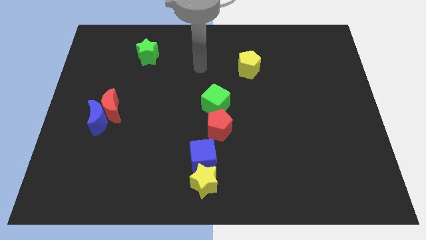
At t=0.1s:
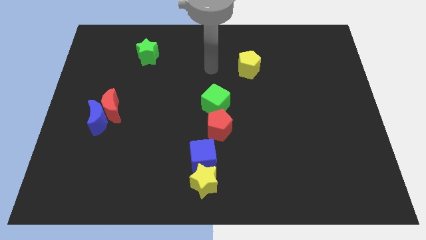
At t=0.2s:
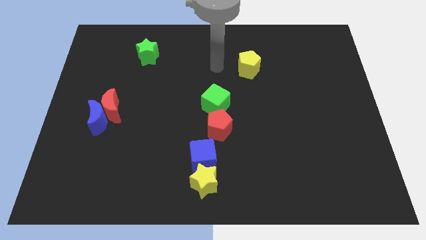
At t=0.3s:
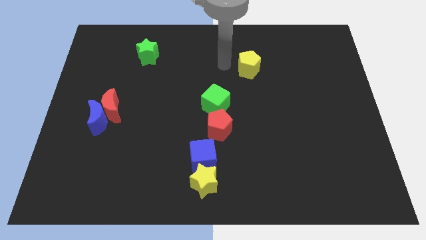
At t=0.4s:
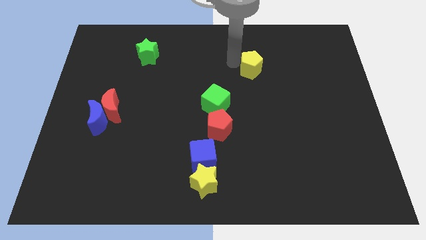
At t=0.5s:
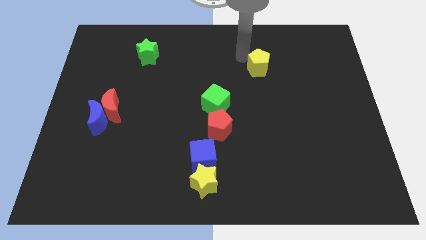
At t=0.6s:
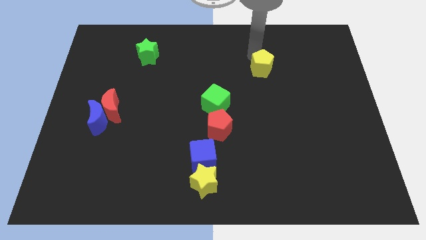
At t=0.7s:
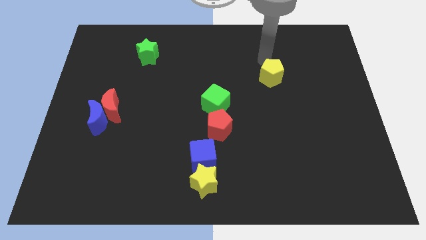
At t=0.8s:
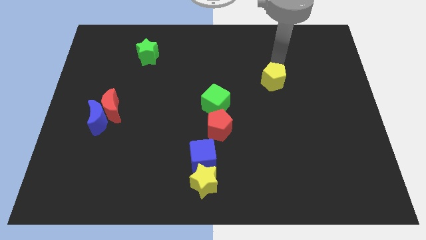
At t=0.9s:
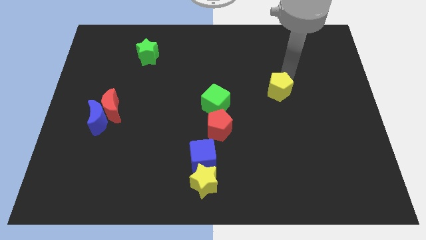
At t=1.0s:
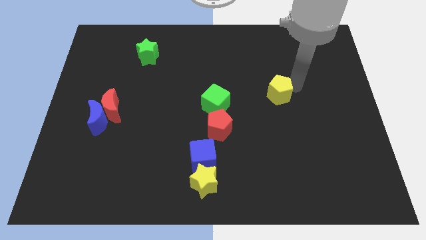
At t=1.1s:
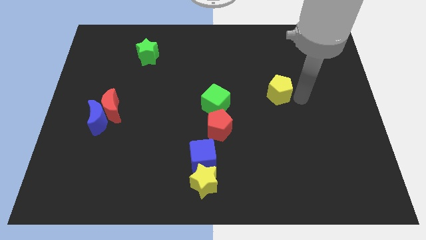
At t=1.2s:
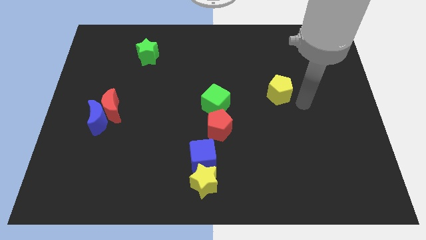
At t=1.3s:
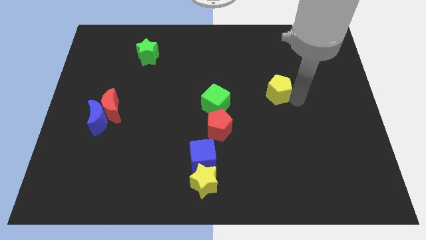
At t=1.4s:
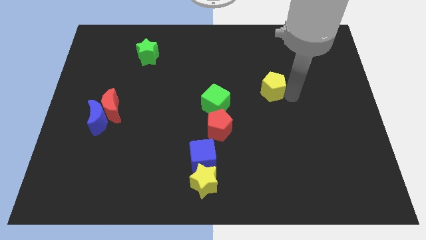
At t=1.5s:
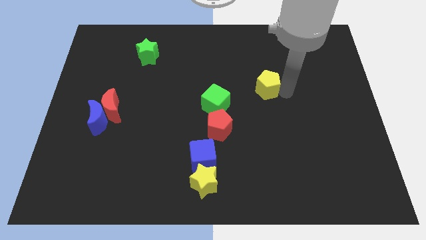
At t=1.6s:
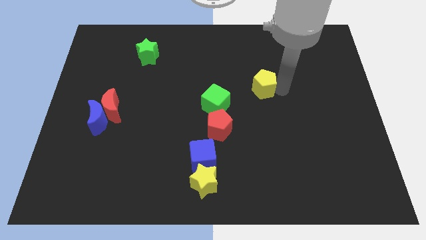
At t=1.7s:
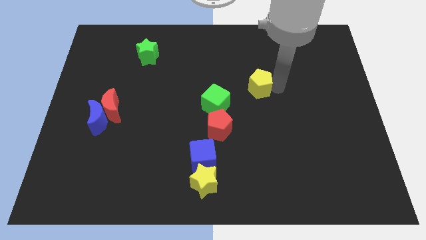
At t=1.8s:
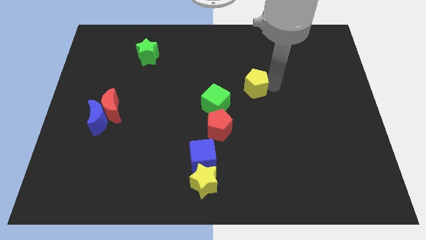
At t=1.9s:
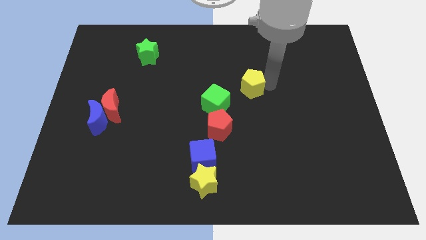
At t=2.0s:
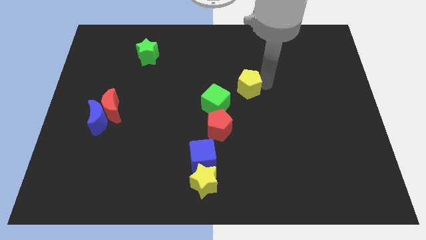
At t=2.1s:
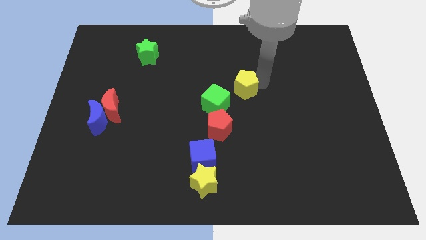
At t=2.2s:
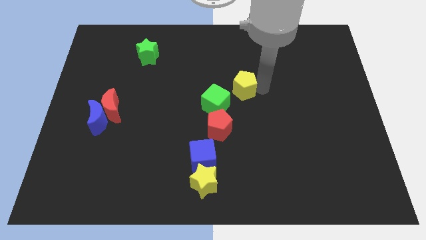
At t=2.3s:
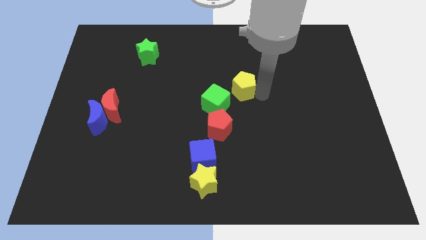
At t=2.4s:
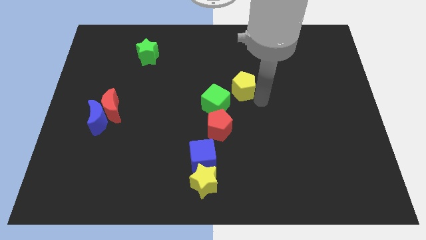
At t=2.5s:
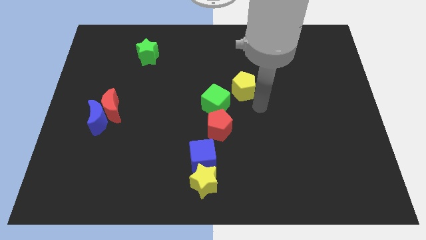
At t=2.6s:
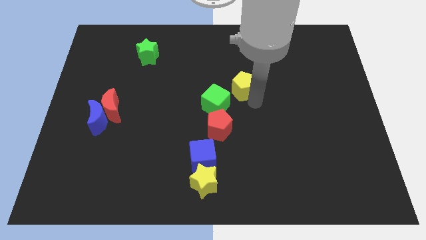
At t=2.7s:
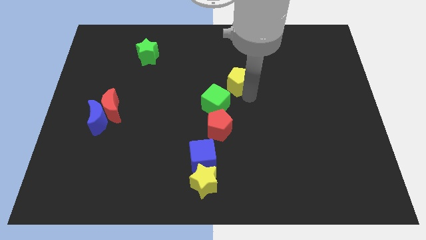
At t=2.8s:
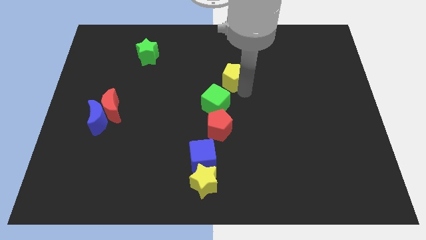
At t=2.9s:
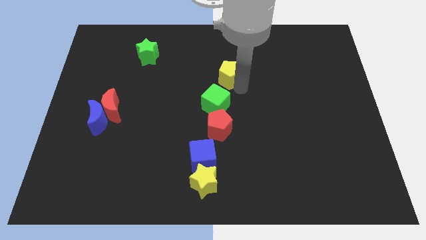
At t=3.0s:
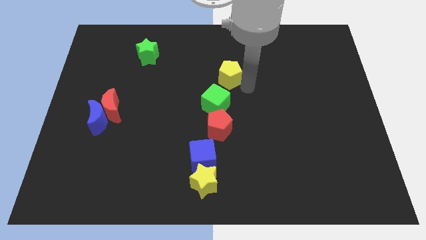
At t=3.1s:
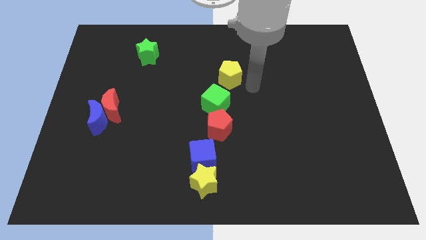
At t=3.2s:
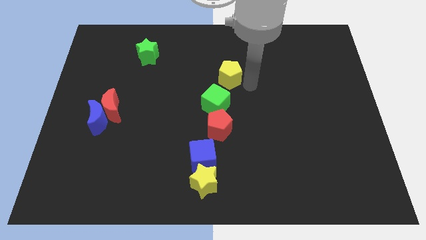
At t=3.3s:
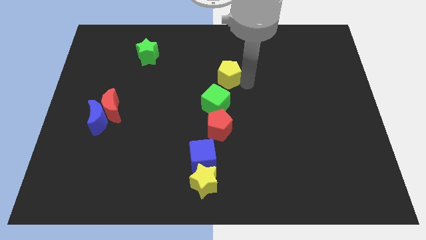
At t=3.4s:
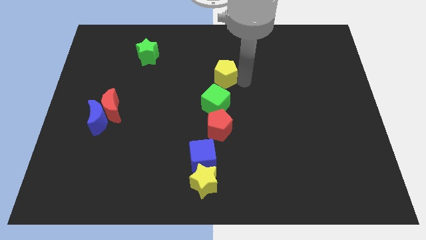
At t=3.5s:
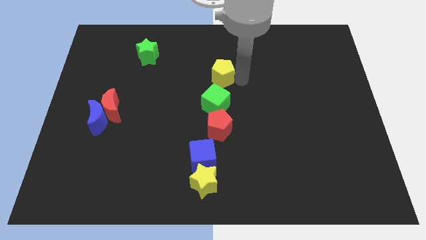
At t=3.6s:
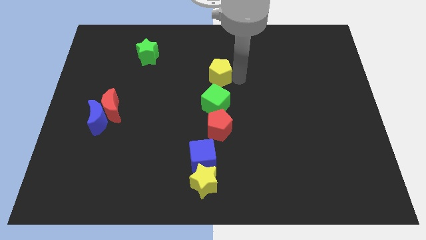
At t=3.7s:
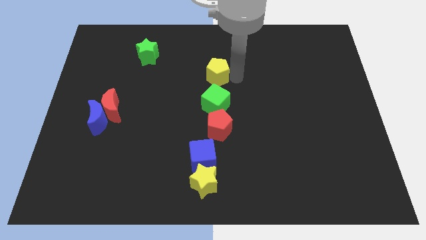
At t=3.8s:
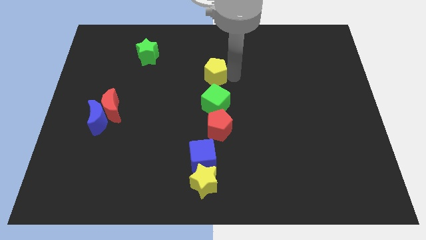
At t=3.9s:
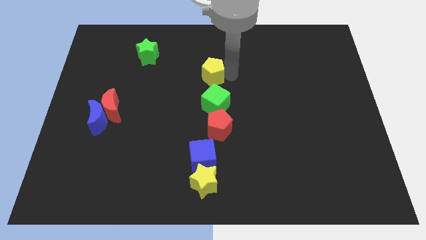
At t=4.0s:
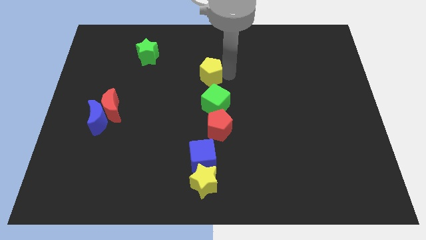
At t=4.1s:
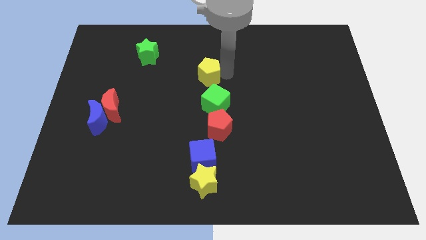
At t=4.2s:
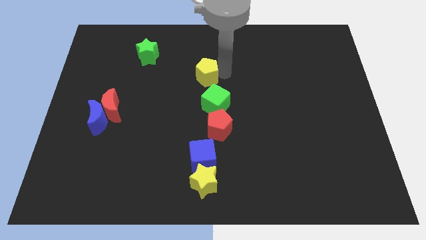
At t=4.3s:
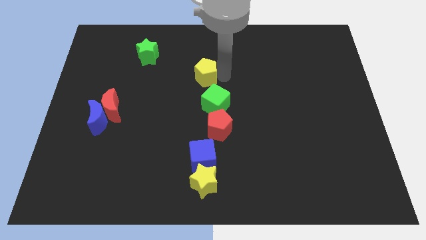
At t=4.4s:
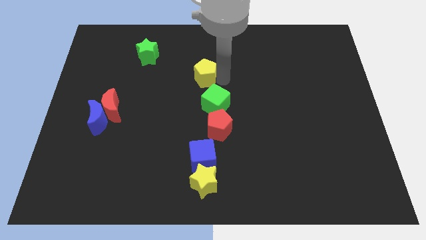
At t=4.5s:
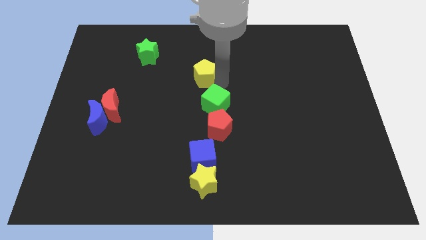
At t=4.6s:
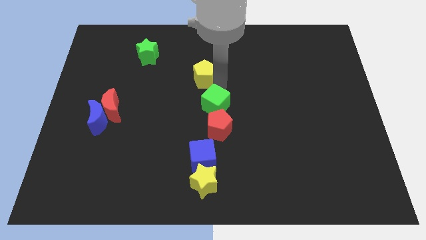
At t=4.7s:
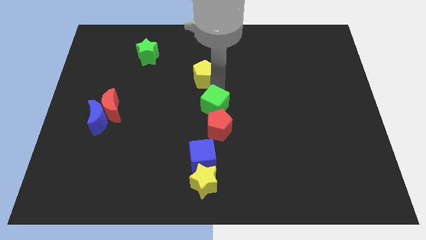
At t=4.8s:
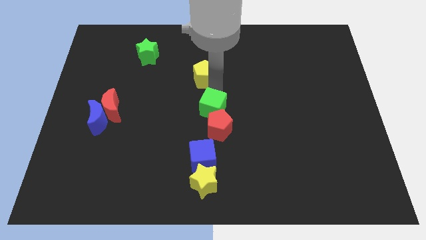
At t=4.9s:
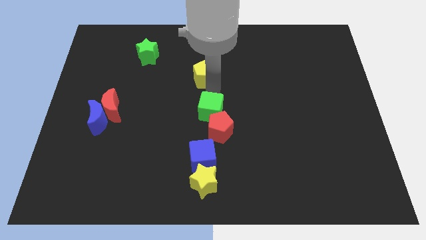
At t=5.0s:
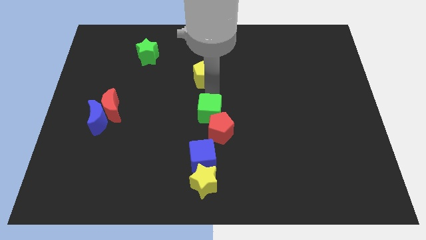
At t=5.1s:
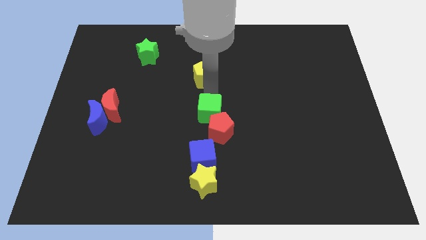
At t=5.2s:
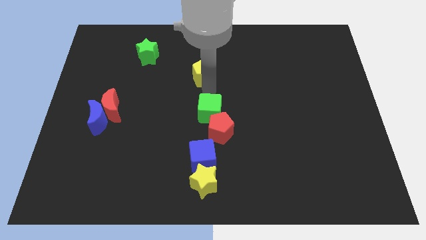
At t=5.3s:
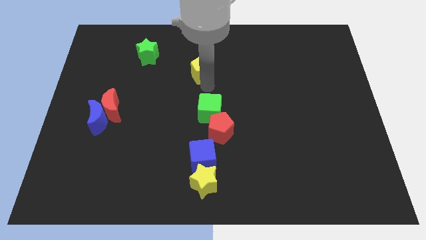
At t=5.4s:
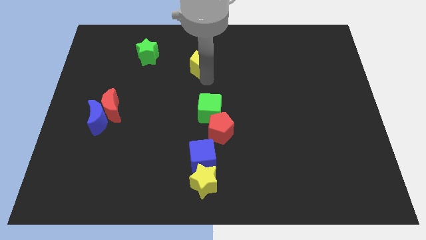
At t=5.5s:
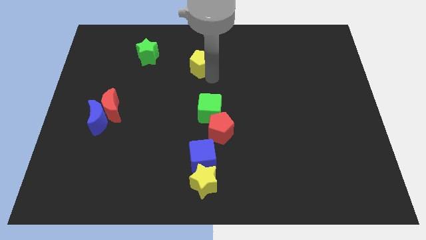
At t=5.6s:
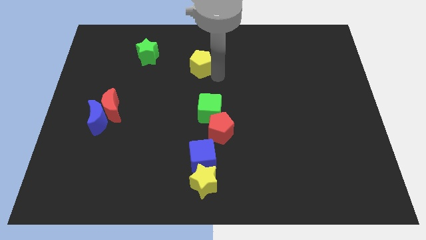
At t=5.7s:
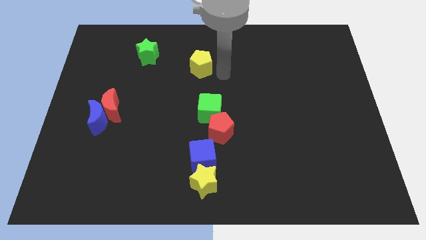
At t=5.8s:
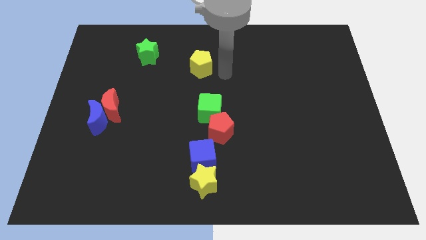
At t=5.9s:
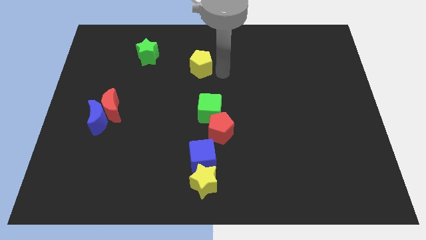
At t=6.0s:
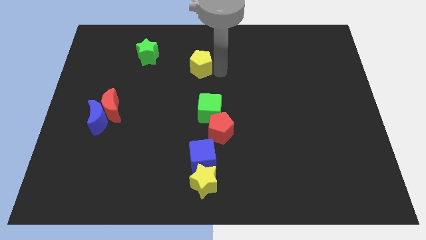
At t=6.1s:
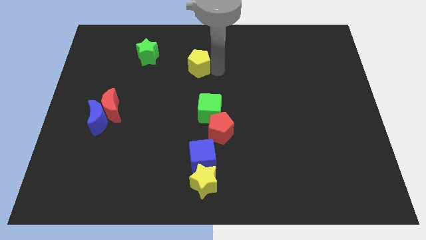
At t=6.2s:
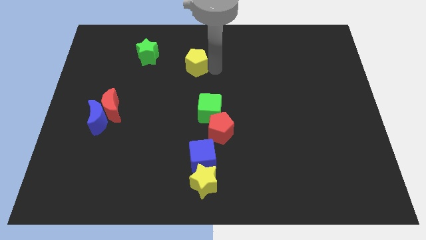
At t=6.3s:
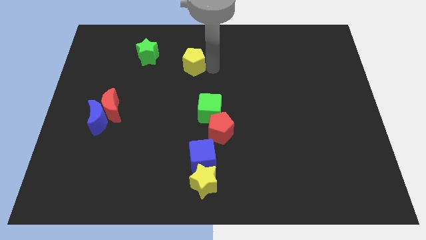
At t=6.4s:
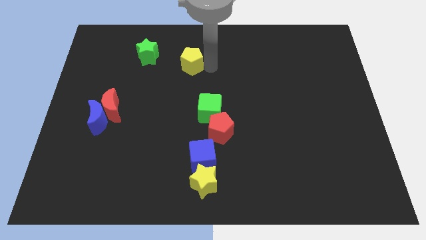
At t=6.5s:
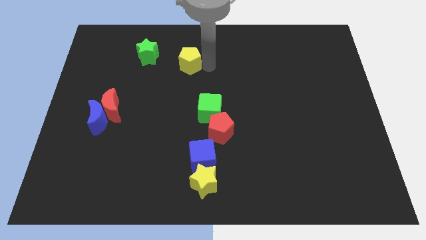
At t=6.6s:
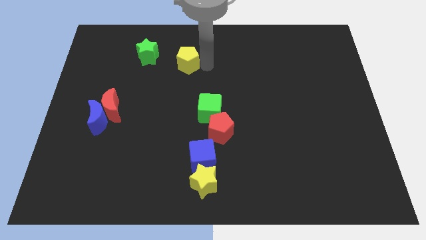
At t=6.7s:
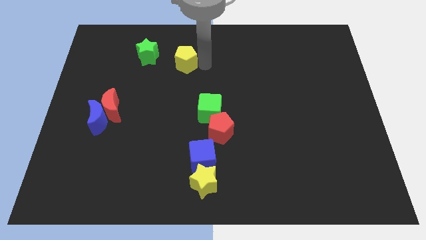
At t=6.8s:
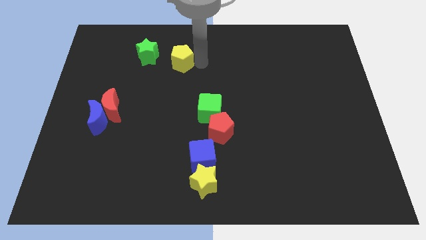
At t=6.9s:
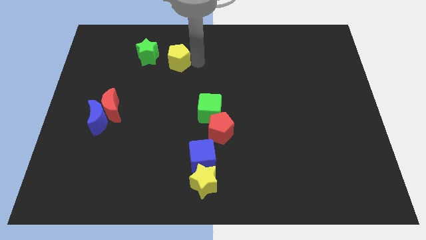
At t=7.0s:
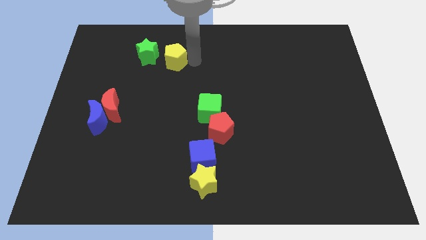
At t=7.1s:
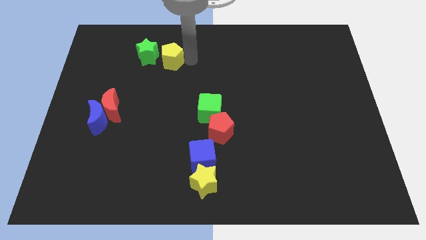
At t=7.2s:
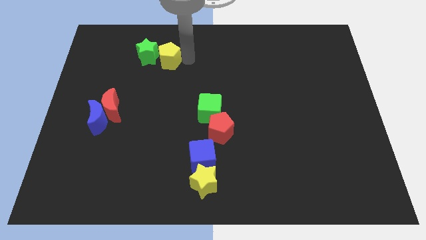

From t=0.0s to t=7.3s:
slide the yellow pentagon to the green star

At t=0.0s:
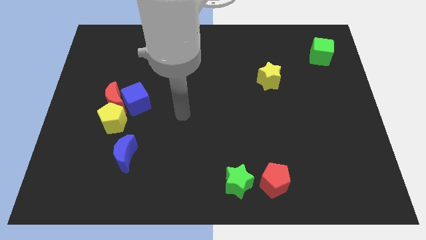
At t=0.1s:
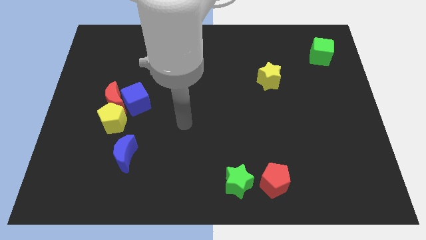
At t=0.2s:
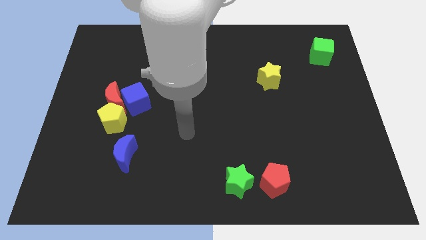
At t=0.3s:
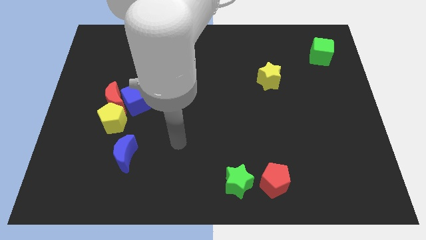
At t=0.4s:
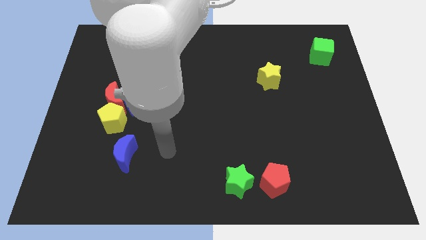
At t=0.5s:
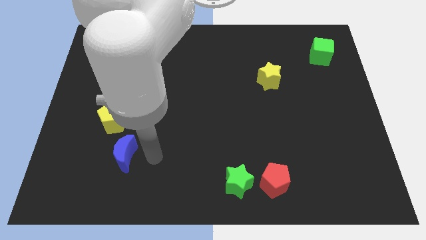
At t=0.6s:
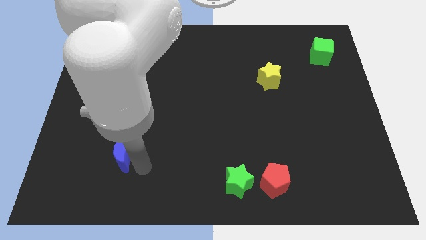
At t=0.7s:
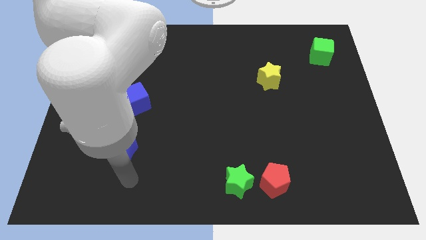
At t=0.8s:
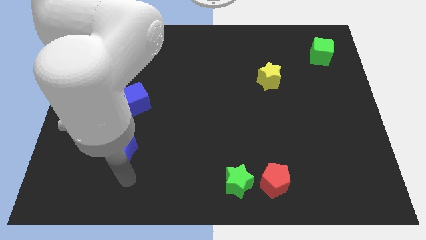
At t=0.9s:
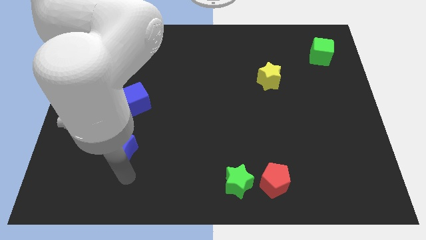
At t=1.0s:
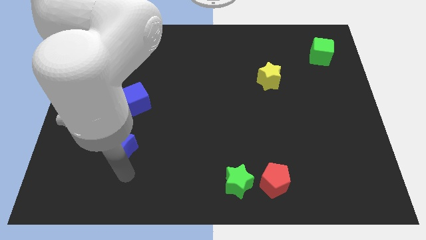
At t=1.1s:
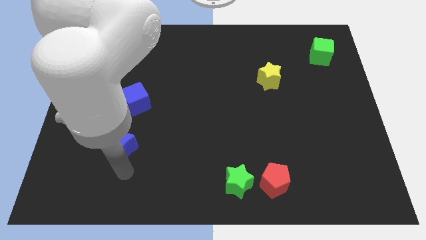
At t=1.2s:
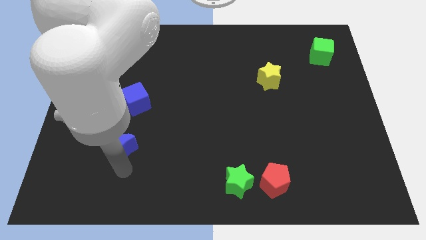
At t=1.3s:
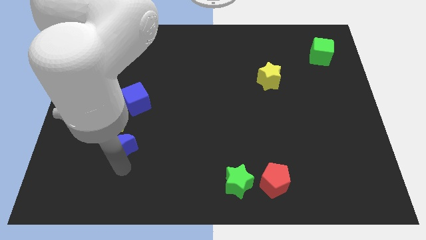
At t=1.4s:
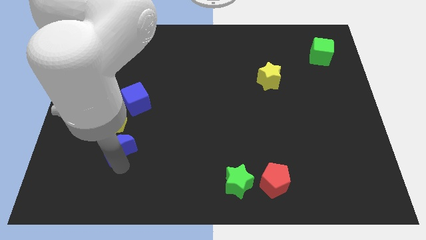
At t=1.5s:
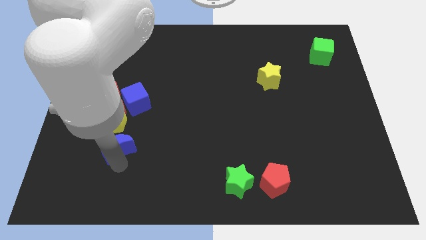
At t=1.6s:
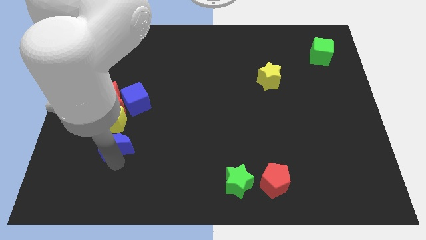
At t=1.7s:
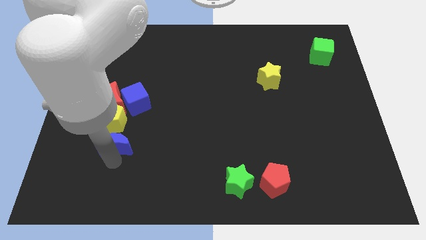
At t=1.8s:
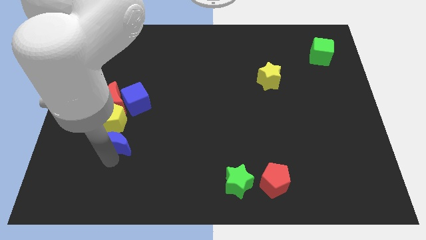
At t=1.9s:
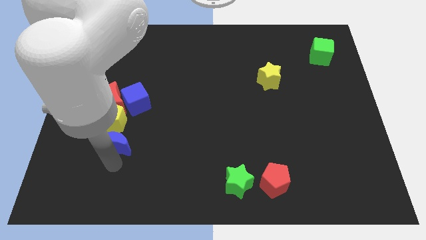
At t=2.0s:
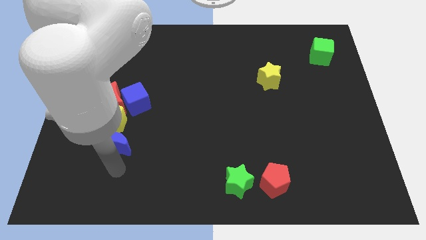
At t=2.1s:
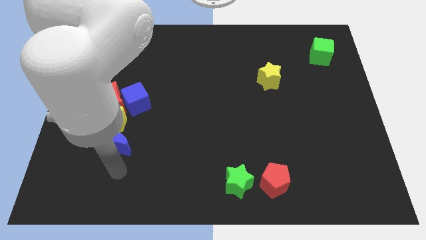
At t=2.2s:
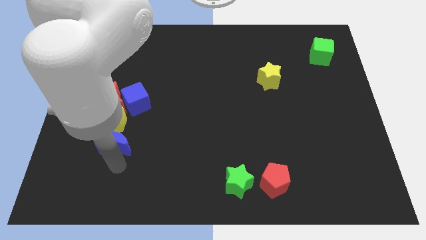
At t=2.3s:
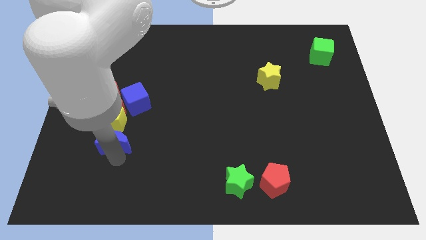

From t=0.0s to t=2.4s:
push the blue moon to the yellow pentagon
